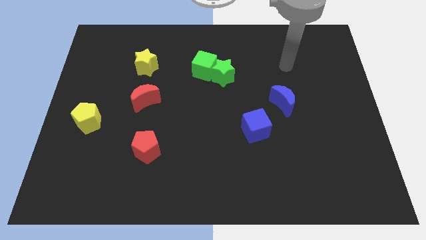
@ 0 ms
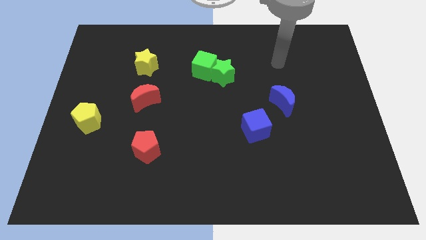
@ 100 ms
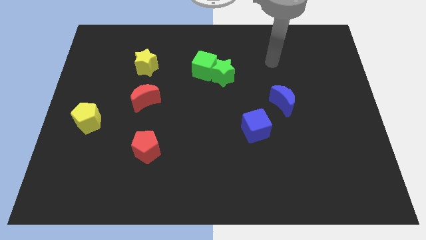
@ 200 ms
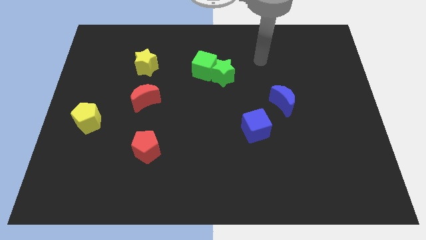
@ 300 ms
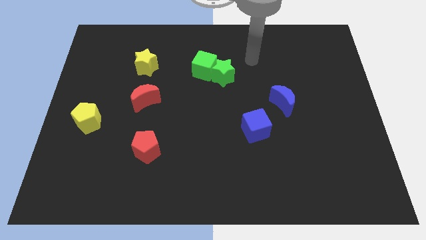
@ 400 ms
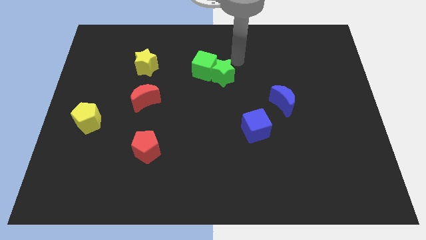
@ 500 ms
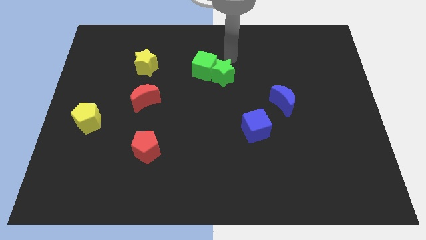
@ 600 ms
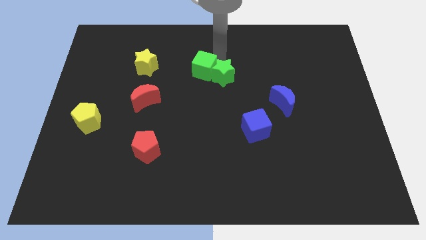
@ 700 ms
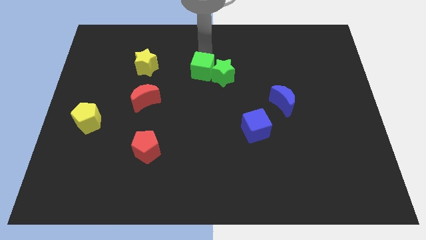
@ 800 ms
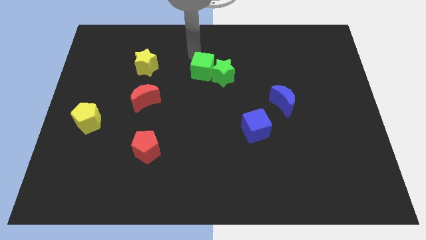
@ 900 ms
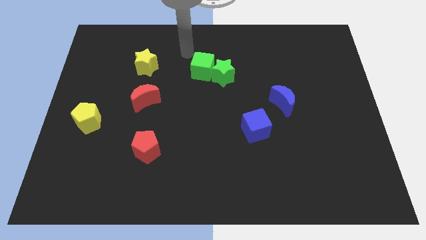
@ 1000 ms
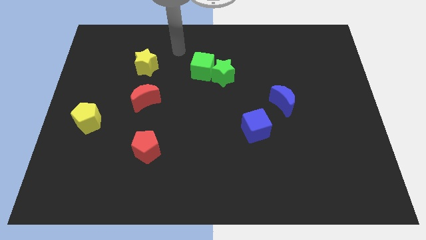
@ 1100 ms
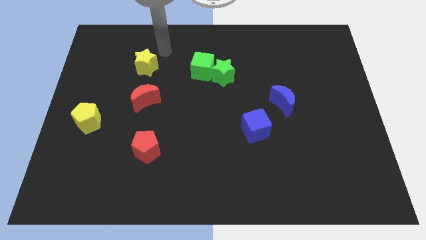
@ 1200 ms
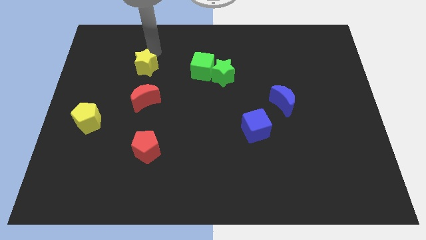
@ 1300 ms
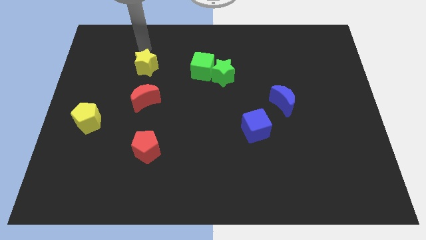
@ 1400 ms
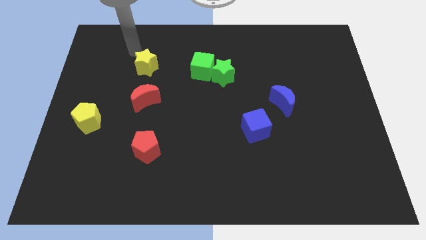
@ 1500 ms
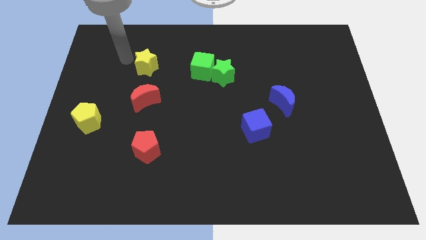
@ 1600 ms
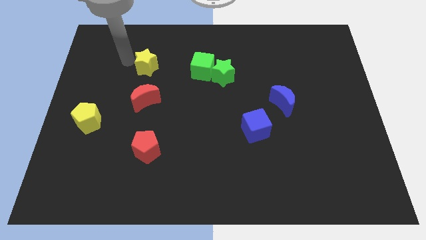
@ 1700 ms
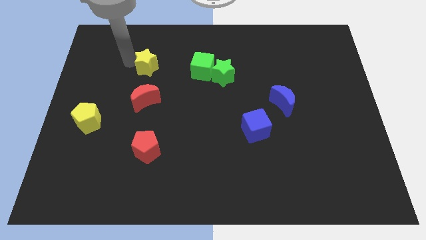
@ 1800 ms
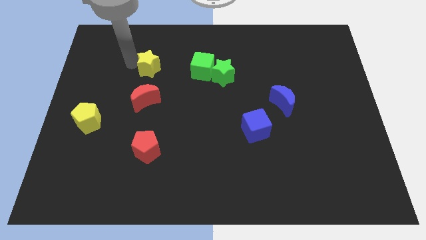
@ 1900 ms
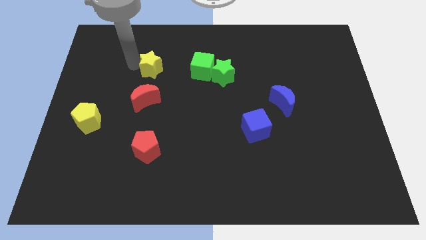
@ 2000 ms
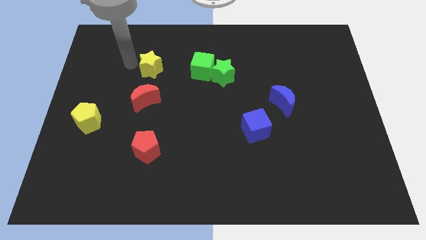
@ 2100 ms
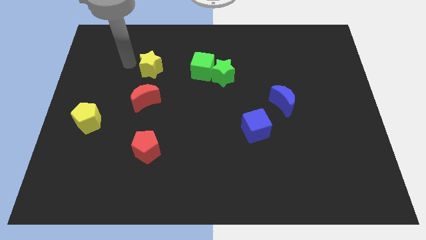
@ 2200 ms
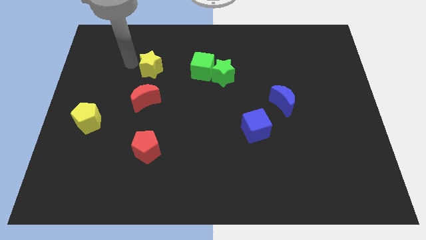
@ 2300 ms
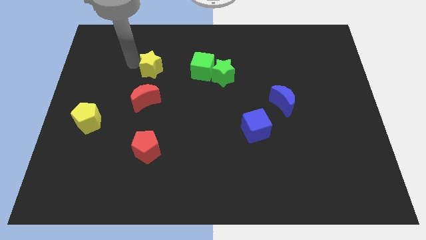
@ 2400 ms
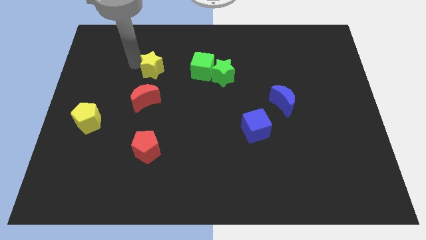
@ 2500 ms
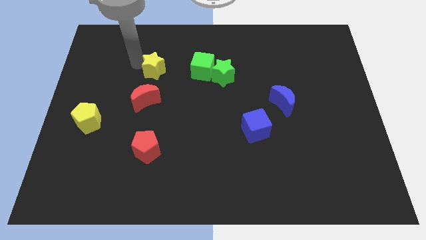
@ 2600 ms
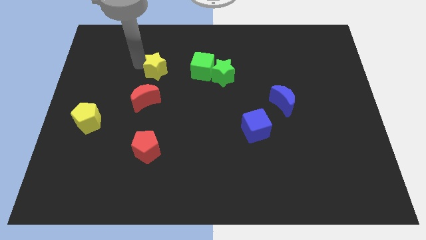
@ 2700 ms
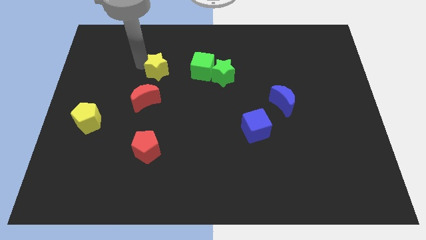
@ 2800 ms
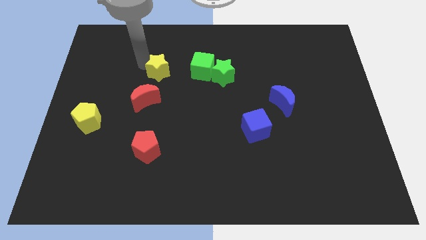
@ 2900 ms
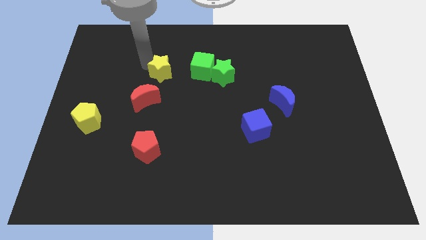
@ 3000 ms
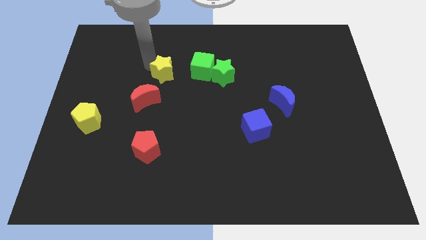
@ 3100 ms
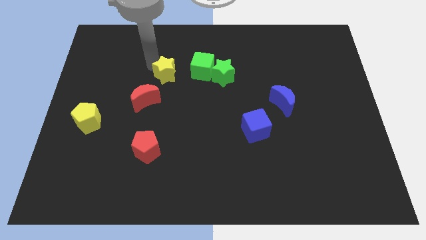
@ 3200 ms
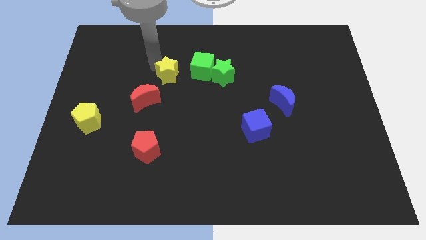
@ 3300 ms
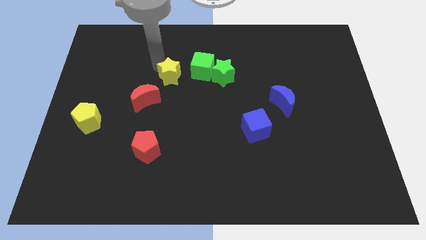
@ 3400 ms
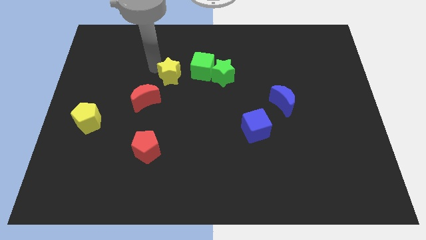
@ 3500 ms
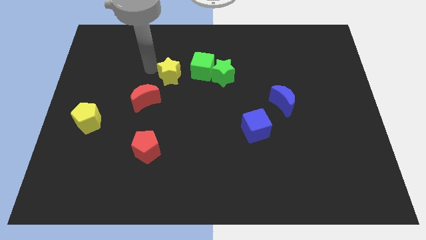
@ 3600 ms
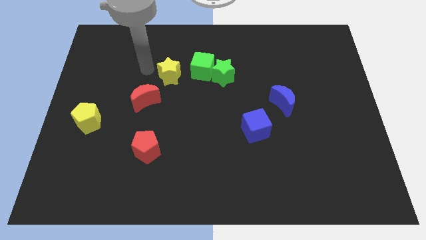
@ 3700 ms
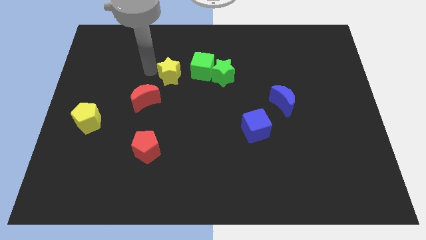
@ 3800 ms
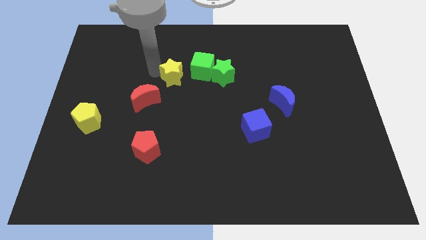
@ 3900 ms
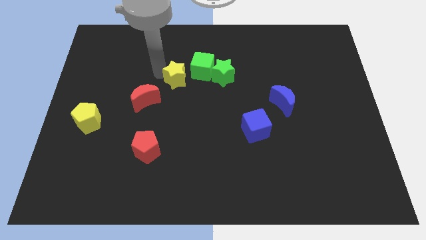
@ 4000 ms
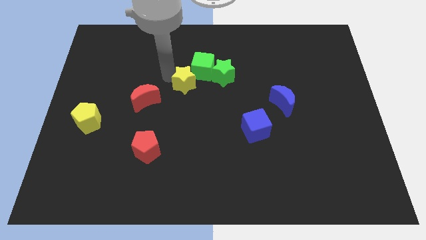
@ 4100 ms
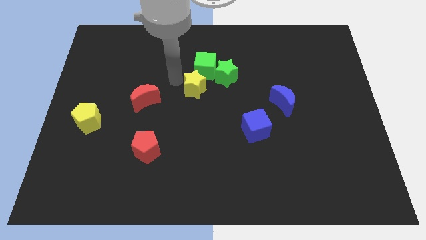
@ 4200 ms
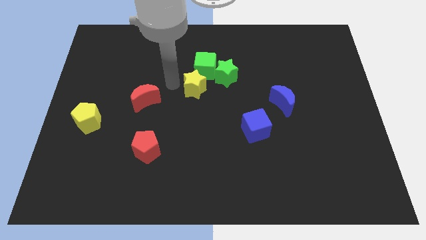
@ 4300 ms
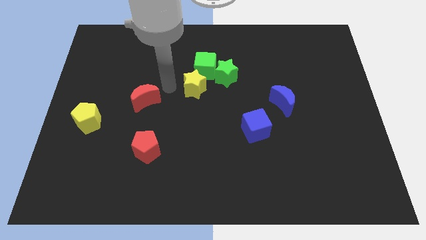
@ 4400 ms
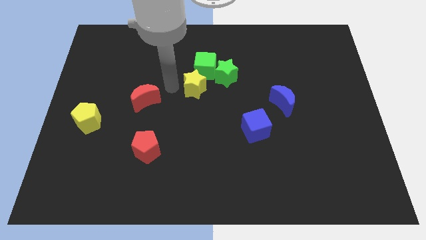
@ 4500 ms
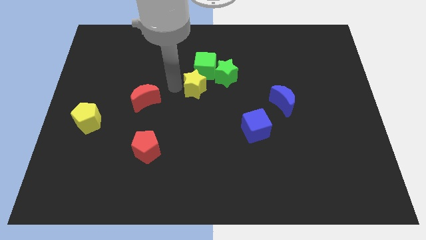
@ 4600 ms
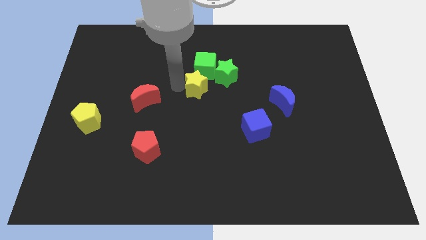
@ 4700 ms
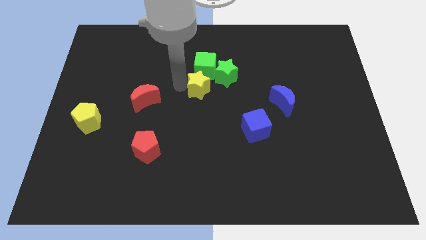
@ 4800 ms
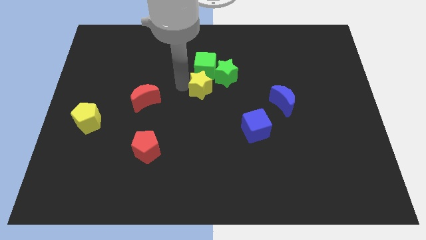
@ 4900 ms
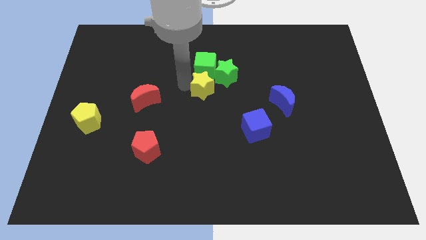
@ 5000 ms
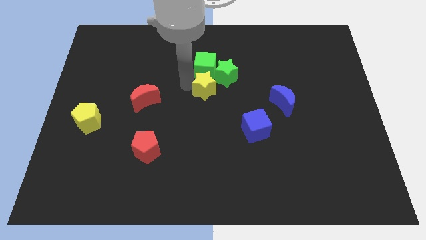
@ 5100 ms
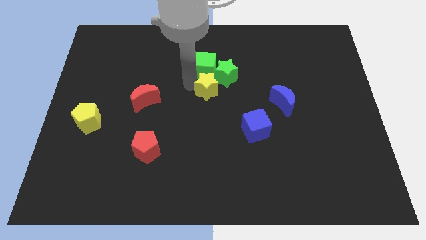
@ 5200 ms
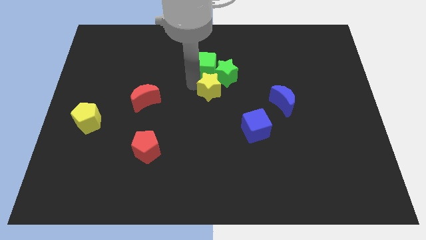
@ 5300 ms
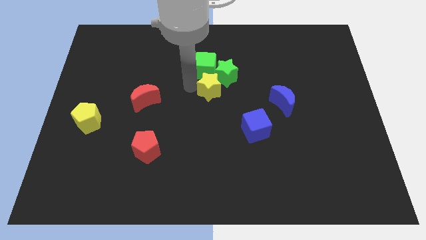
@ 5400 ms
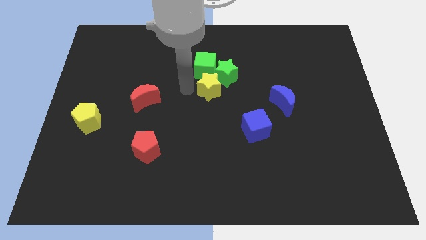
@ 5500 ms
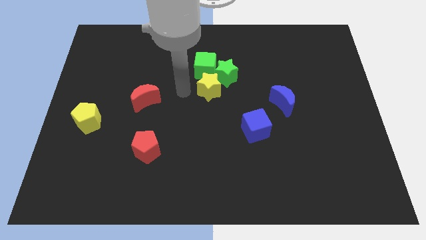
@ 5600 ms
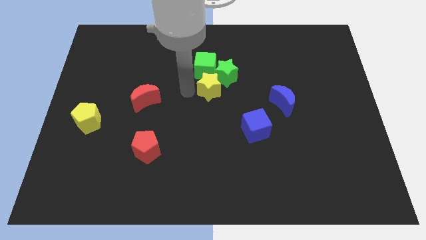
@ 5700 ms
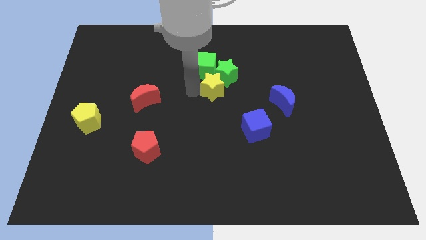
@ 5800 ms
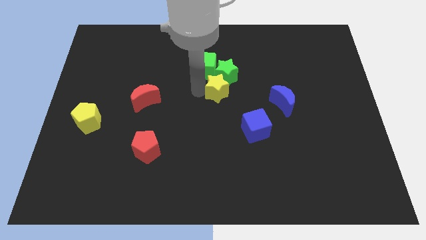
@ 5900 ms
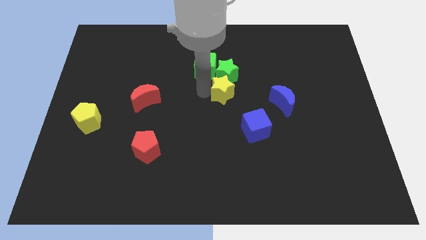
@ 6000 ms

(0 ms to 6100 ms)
put the yellow star to the bottom right of the green star
